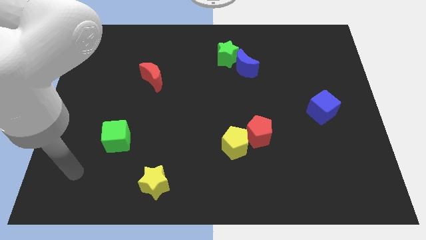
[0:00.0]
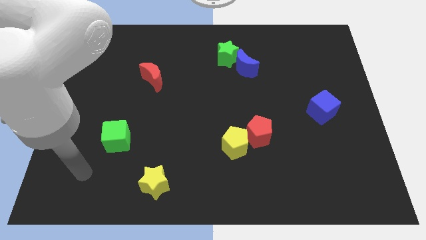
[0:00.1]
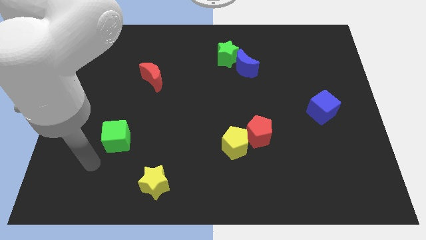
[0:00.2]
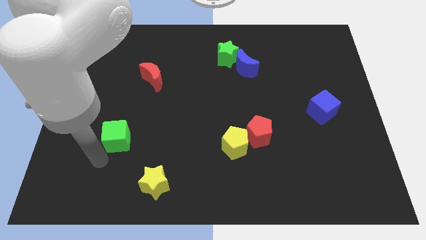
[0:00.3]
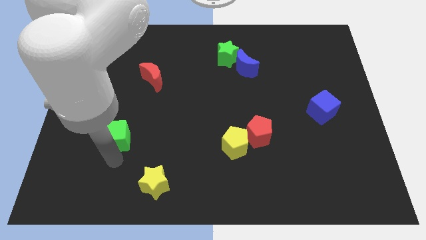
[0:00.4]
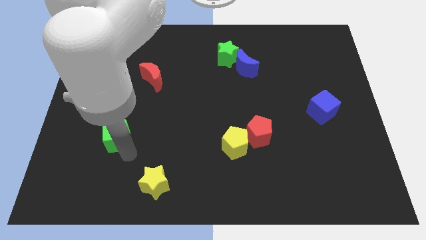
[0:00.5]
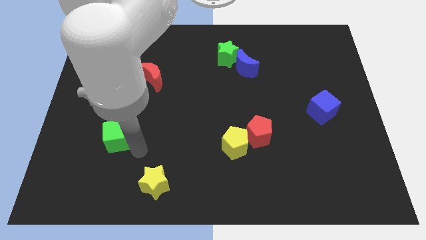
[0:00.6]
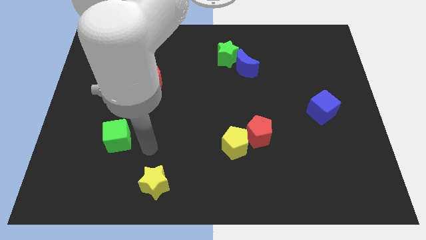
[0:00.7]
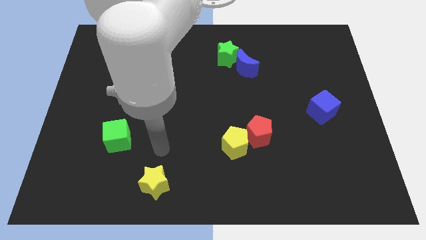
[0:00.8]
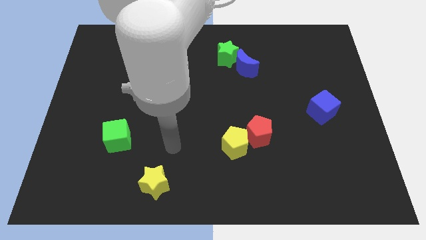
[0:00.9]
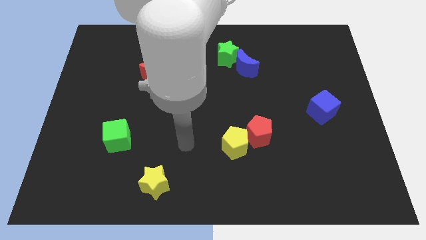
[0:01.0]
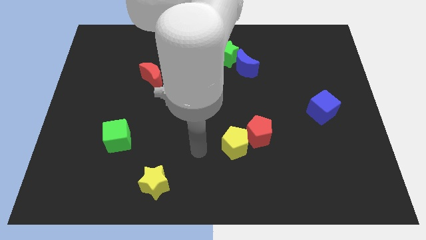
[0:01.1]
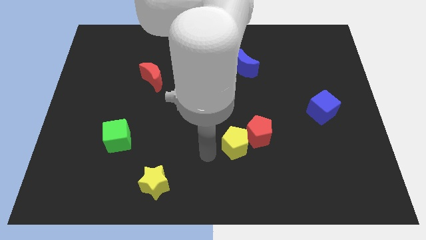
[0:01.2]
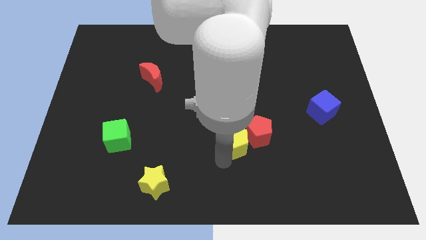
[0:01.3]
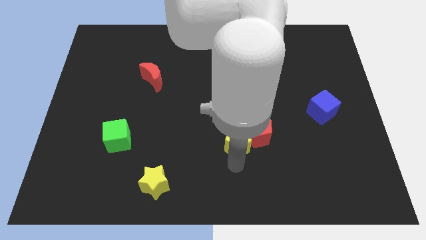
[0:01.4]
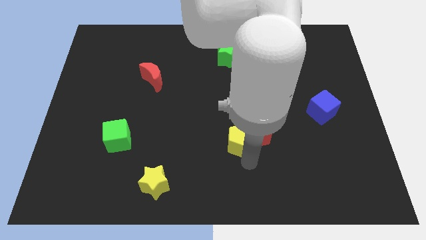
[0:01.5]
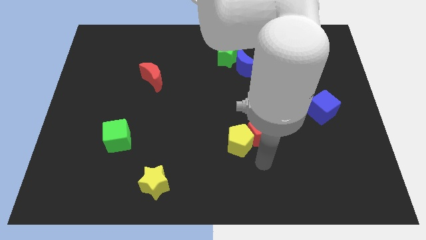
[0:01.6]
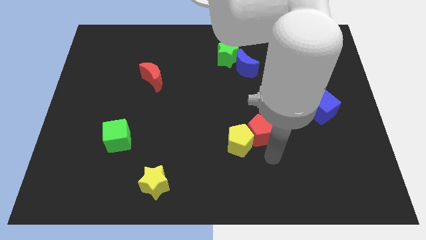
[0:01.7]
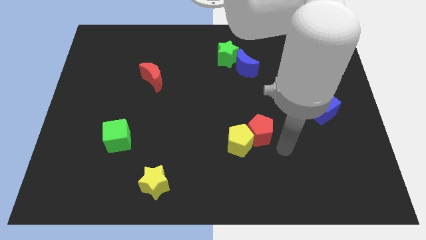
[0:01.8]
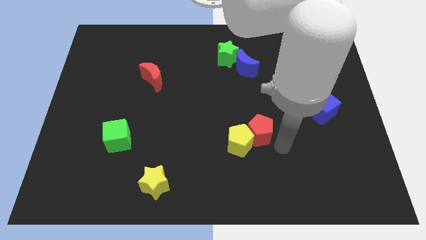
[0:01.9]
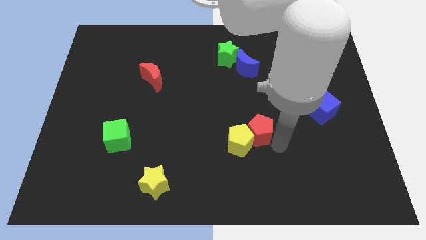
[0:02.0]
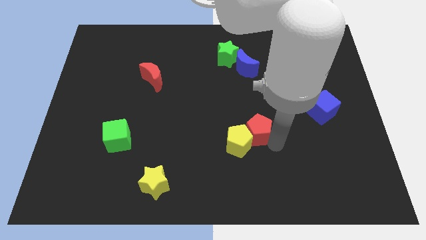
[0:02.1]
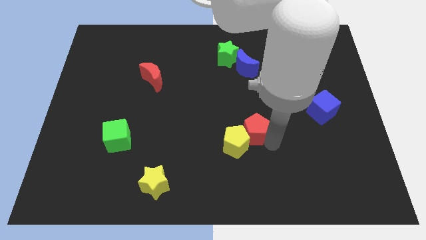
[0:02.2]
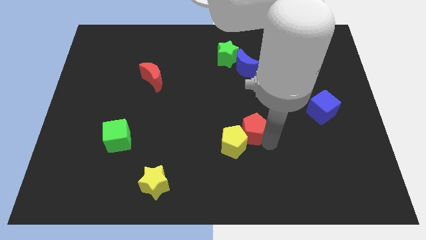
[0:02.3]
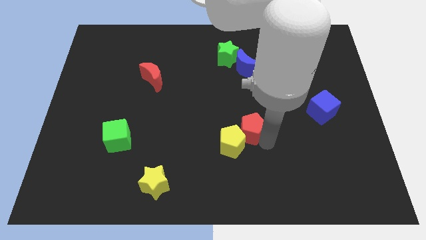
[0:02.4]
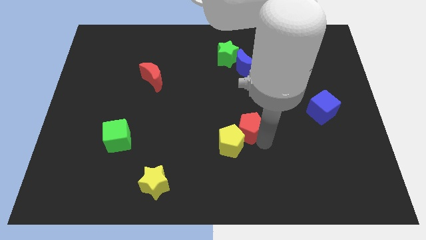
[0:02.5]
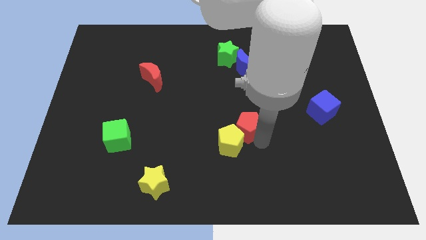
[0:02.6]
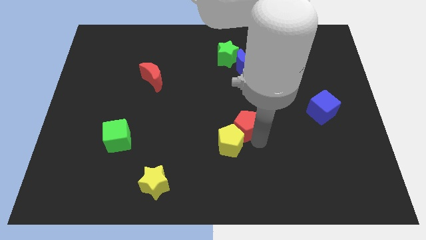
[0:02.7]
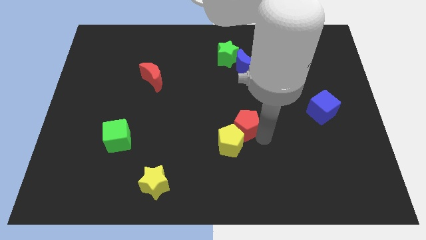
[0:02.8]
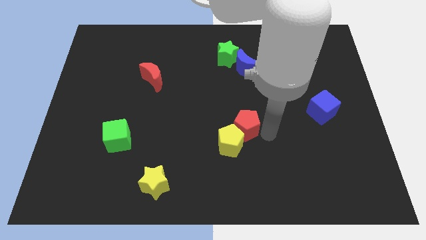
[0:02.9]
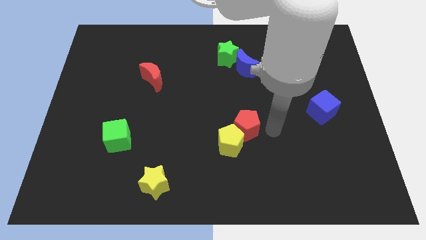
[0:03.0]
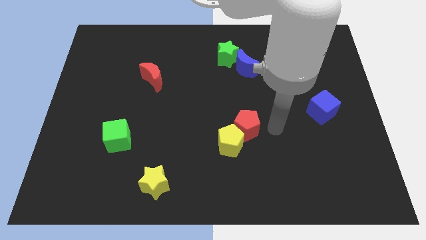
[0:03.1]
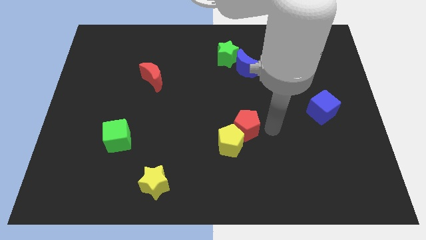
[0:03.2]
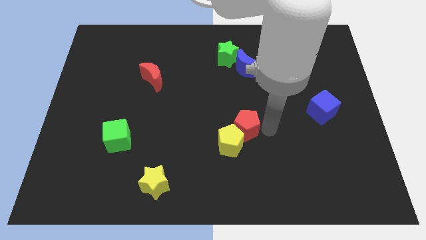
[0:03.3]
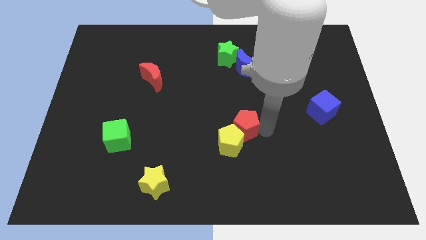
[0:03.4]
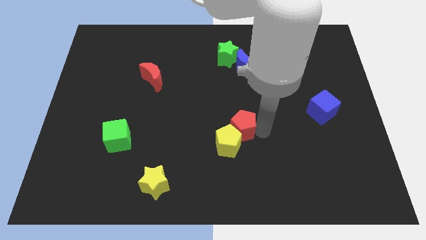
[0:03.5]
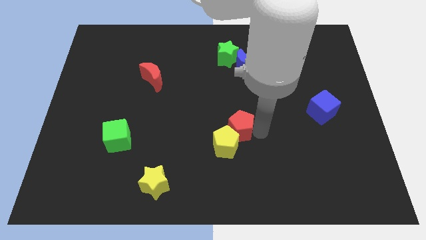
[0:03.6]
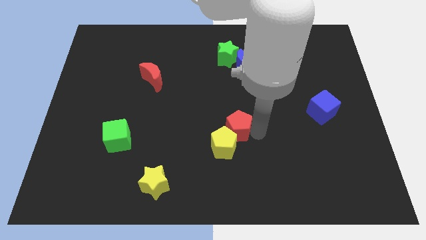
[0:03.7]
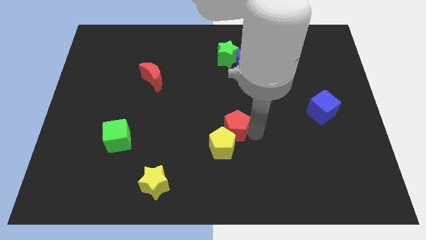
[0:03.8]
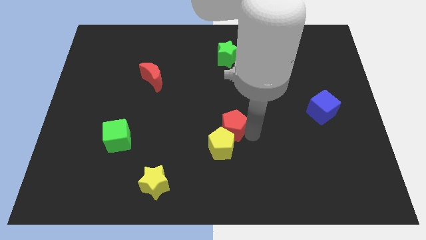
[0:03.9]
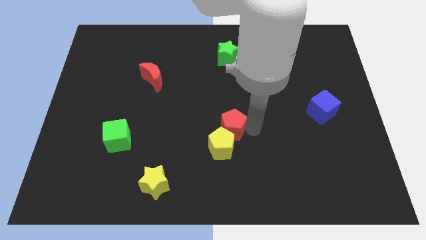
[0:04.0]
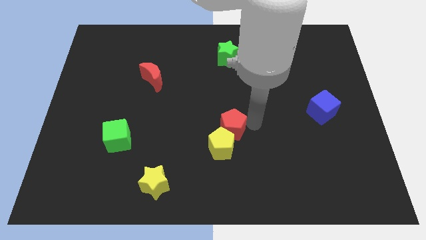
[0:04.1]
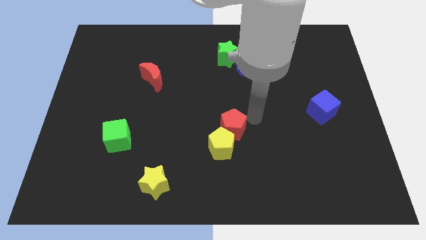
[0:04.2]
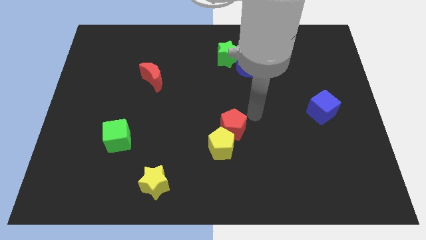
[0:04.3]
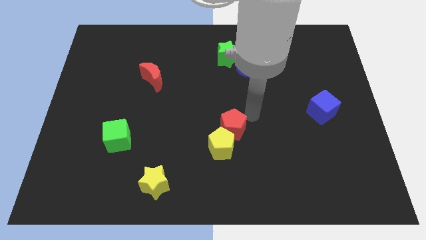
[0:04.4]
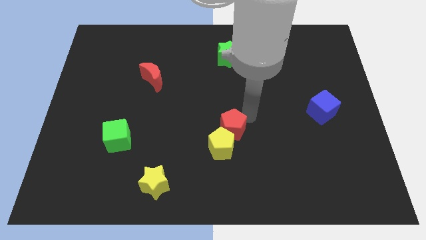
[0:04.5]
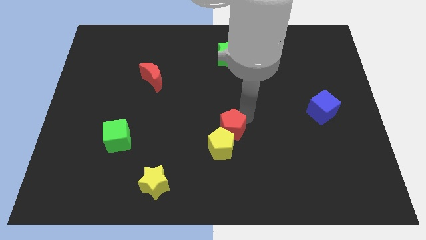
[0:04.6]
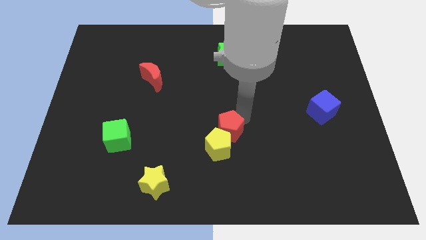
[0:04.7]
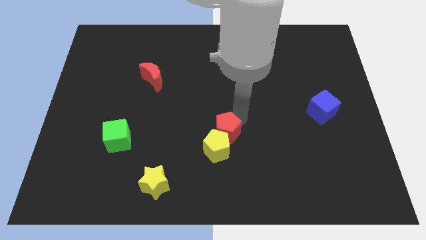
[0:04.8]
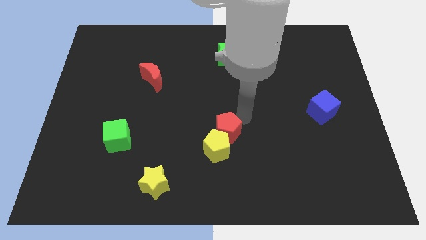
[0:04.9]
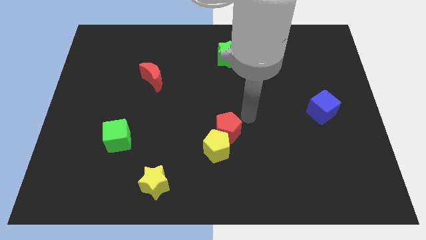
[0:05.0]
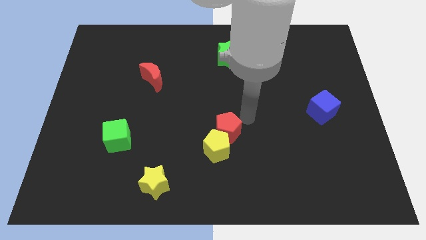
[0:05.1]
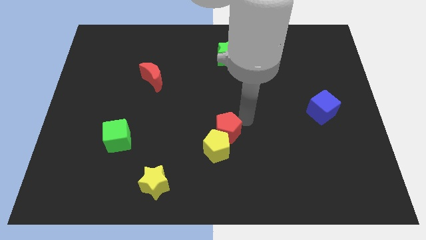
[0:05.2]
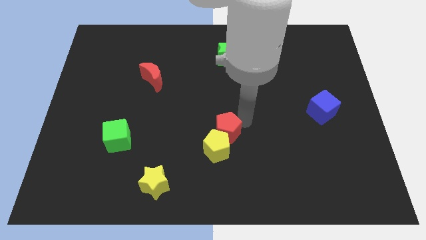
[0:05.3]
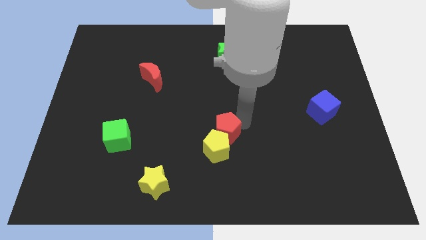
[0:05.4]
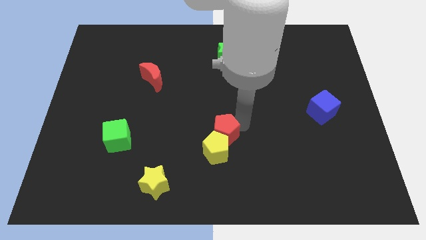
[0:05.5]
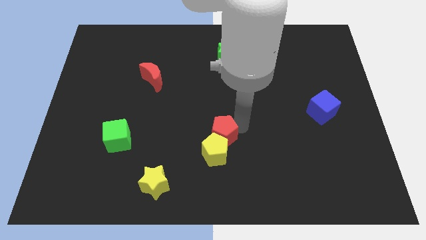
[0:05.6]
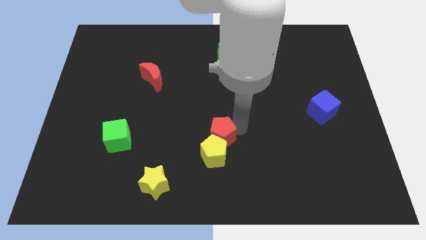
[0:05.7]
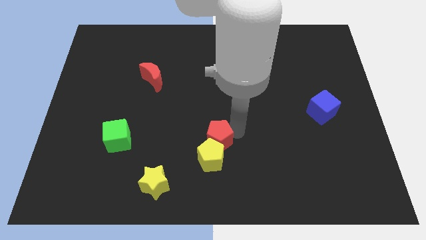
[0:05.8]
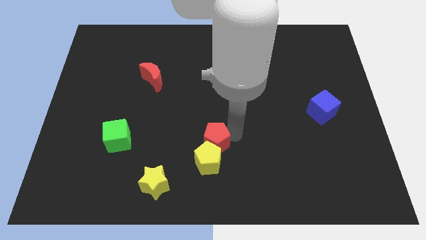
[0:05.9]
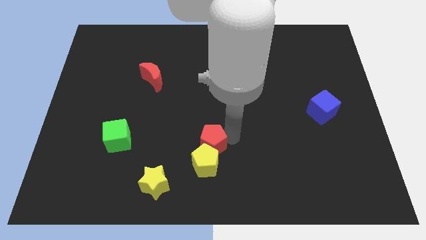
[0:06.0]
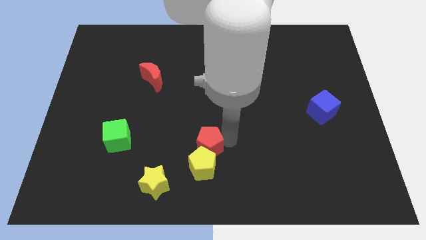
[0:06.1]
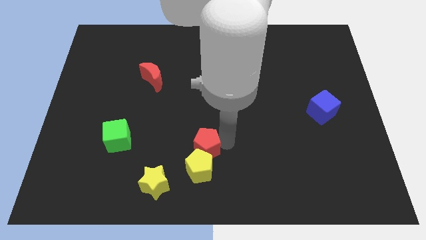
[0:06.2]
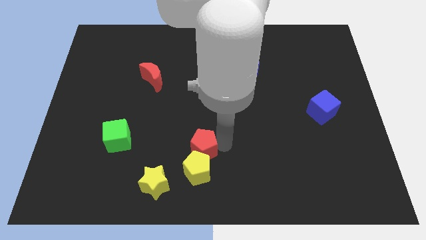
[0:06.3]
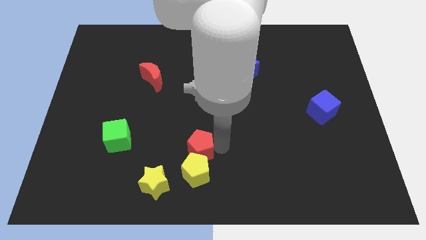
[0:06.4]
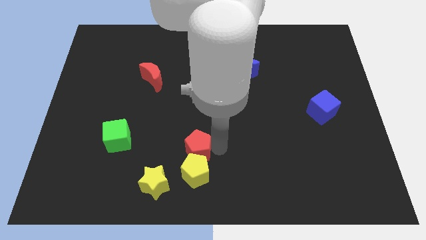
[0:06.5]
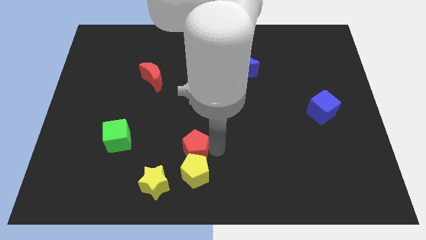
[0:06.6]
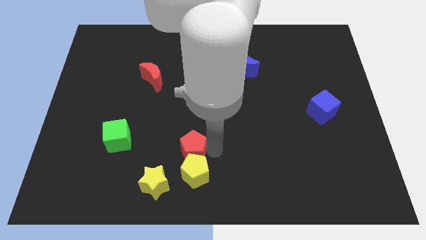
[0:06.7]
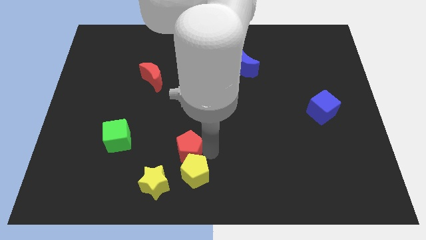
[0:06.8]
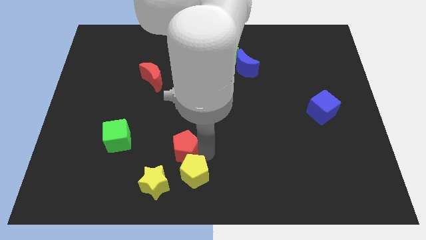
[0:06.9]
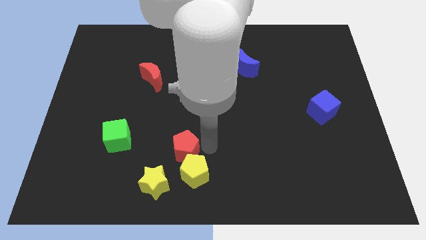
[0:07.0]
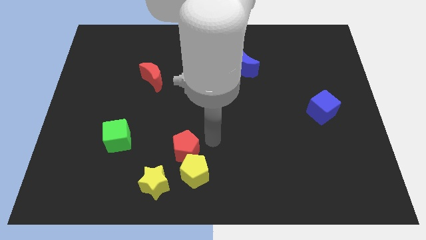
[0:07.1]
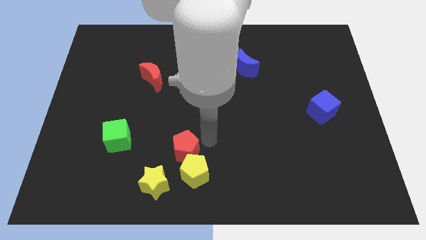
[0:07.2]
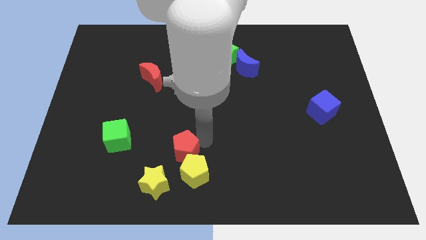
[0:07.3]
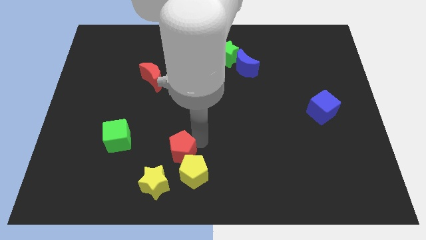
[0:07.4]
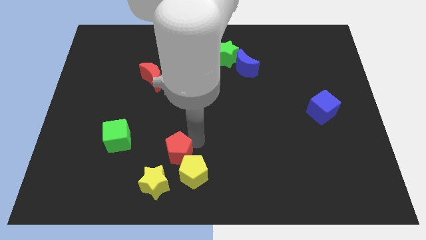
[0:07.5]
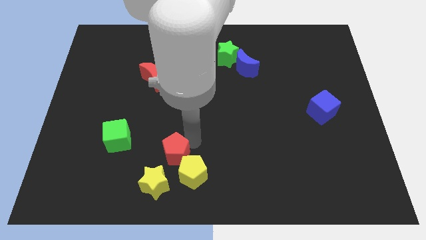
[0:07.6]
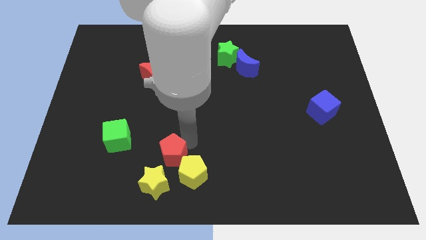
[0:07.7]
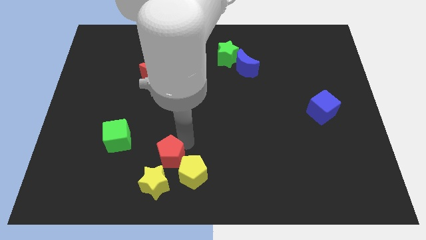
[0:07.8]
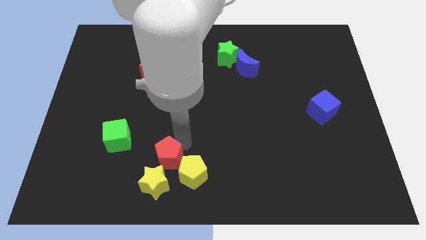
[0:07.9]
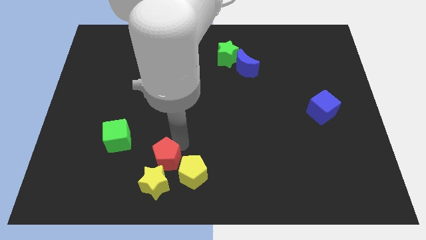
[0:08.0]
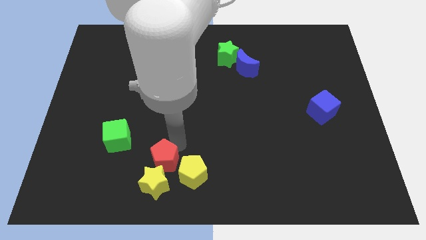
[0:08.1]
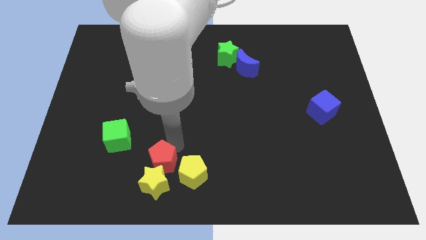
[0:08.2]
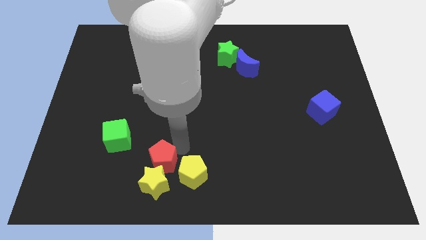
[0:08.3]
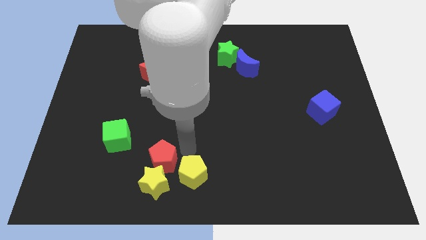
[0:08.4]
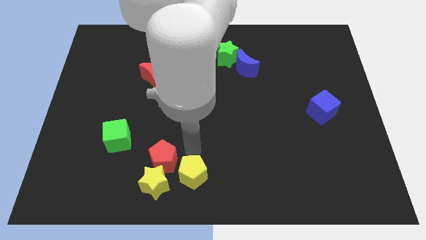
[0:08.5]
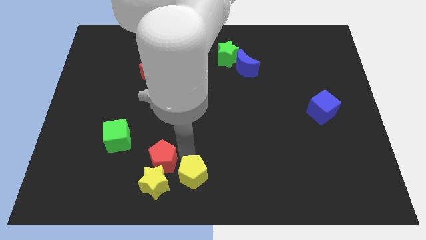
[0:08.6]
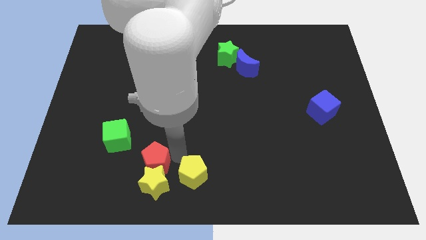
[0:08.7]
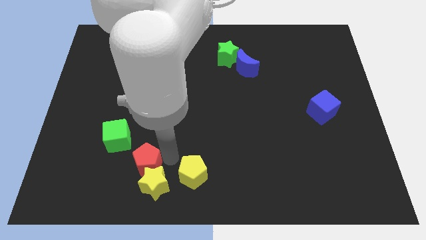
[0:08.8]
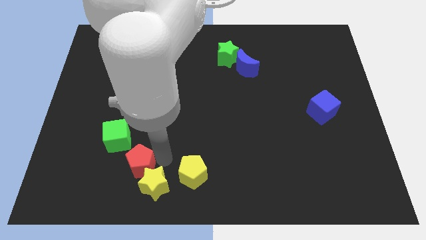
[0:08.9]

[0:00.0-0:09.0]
move the red pentagon just left of the yellow star
